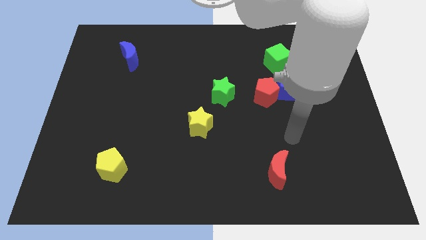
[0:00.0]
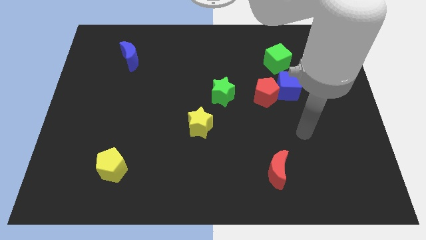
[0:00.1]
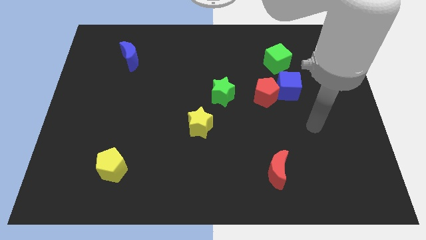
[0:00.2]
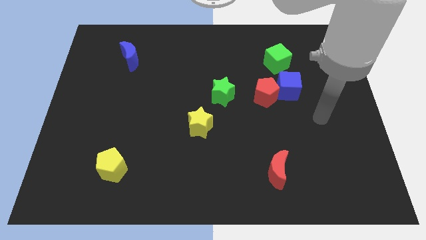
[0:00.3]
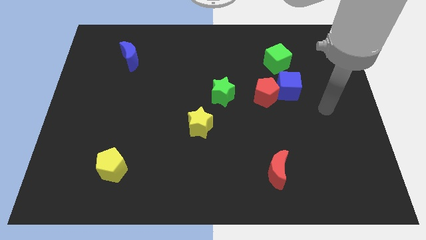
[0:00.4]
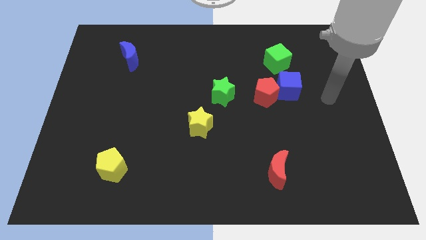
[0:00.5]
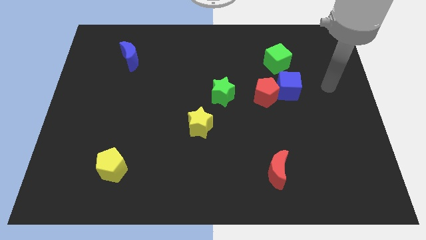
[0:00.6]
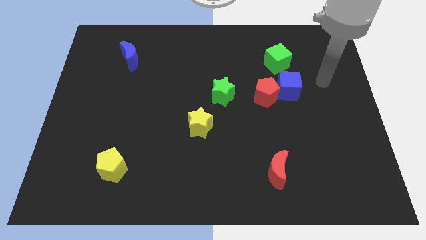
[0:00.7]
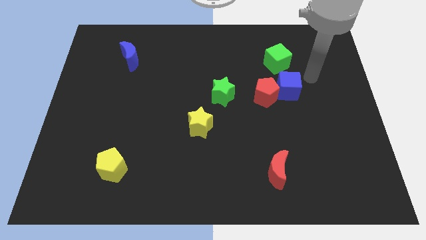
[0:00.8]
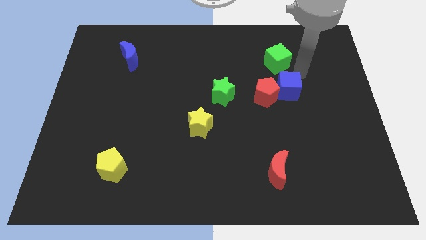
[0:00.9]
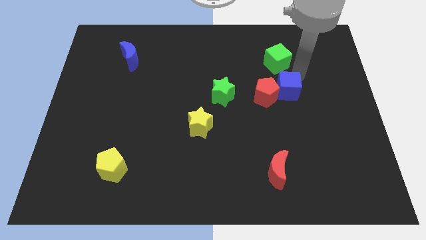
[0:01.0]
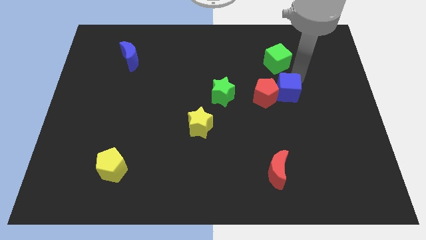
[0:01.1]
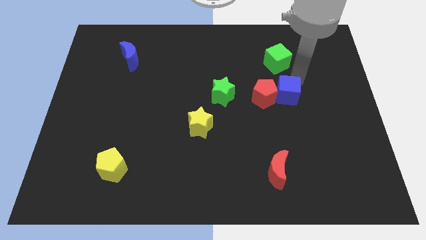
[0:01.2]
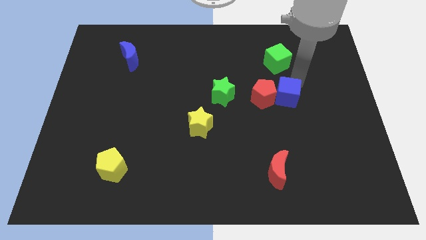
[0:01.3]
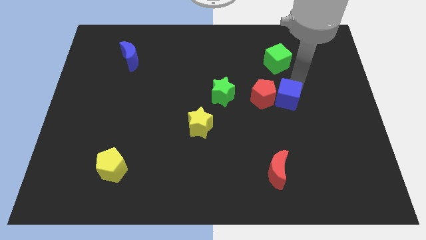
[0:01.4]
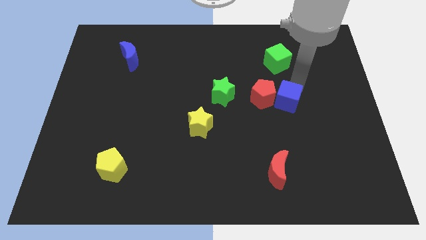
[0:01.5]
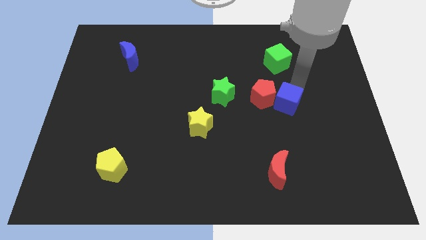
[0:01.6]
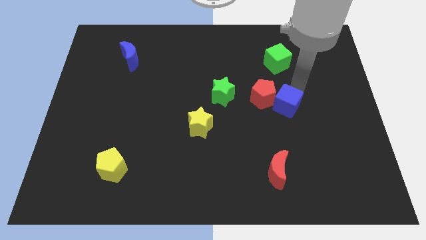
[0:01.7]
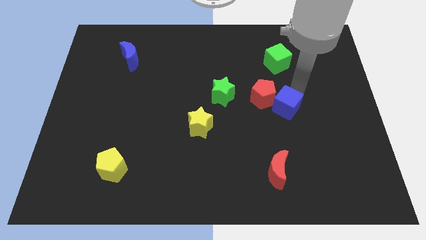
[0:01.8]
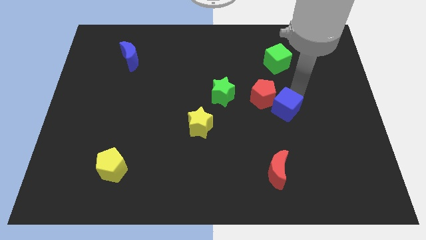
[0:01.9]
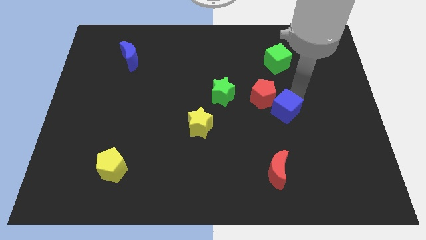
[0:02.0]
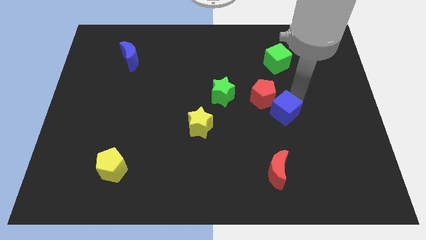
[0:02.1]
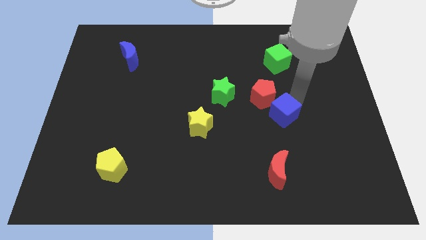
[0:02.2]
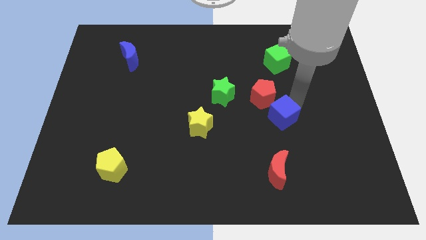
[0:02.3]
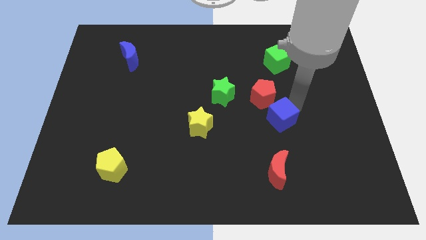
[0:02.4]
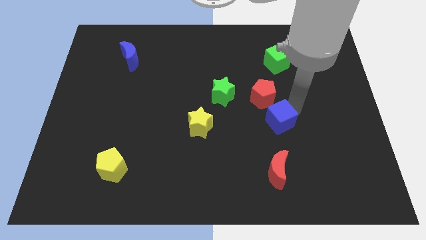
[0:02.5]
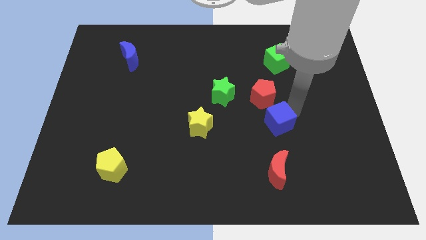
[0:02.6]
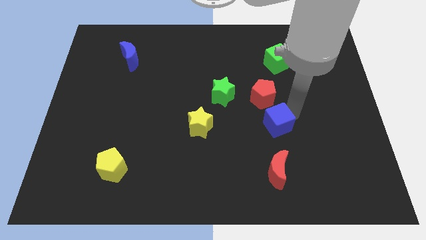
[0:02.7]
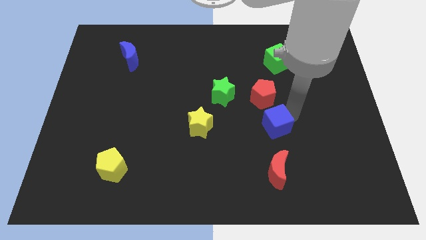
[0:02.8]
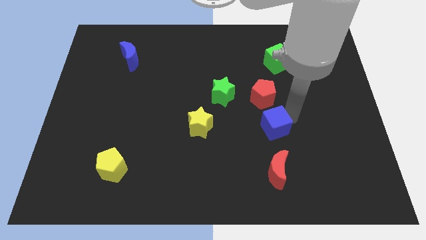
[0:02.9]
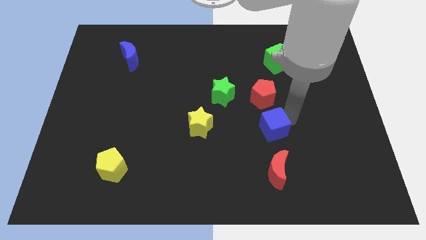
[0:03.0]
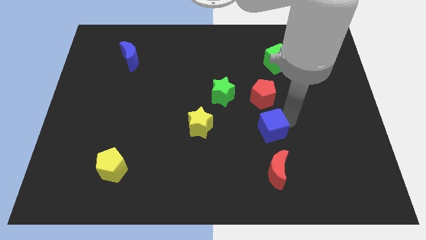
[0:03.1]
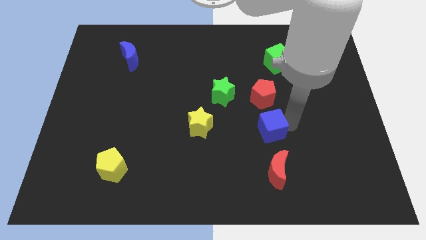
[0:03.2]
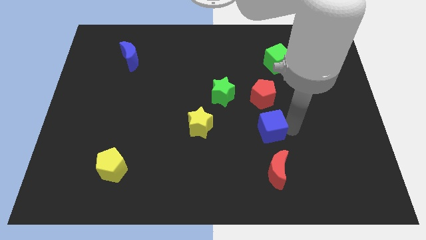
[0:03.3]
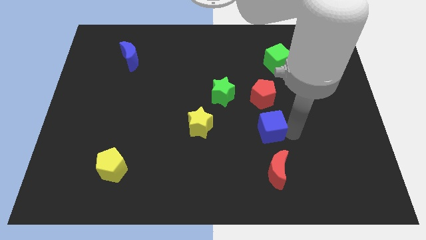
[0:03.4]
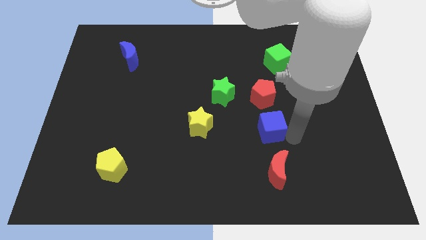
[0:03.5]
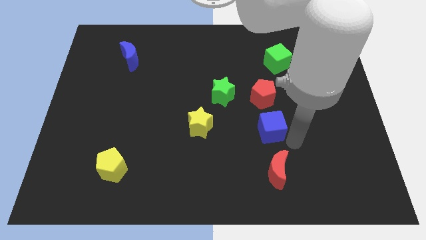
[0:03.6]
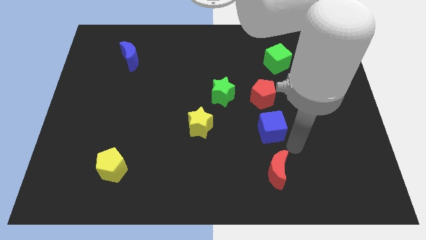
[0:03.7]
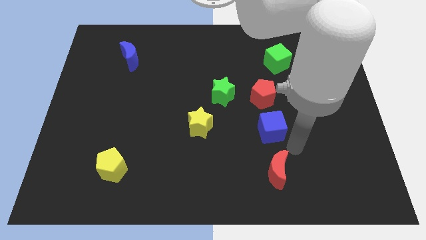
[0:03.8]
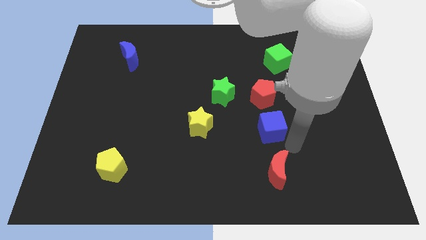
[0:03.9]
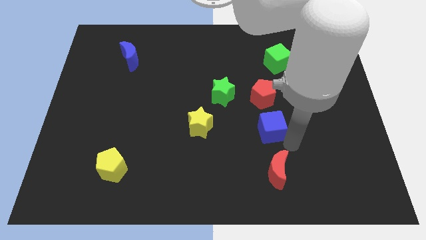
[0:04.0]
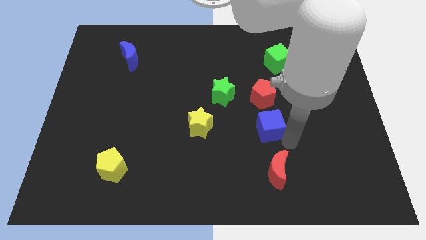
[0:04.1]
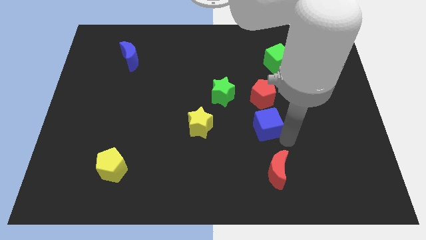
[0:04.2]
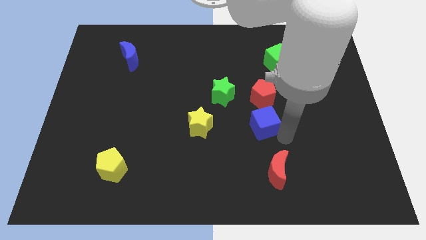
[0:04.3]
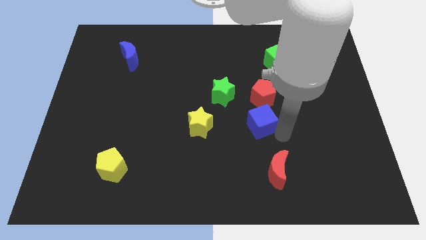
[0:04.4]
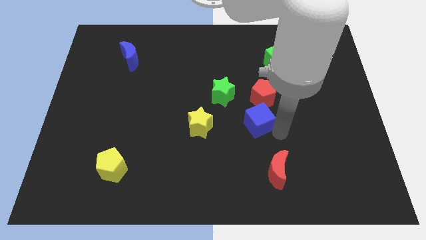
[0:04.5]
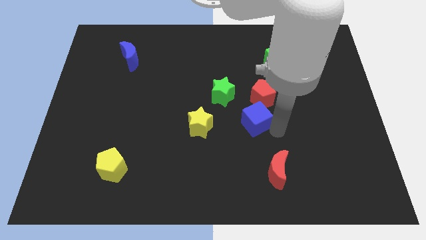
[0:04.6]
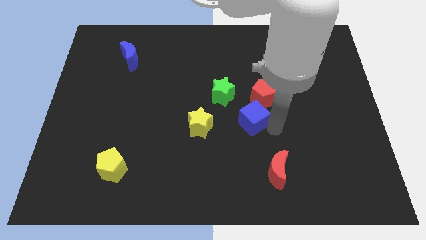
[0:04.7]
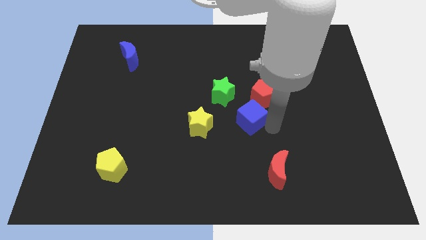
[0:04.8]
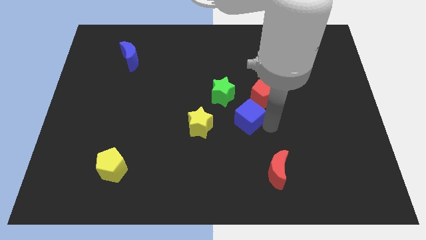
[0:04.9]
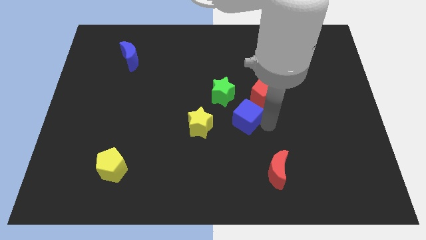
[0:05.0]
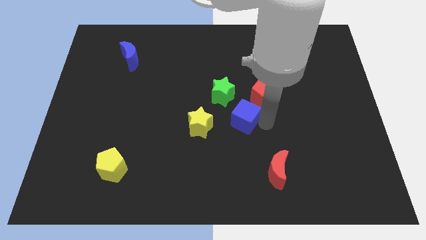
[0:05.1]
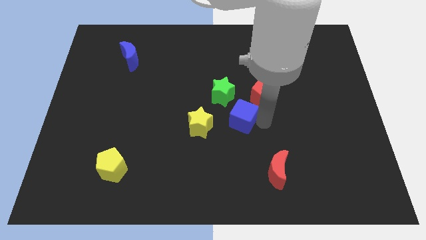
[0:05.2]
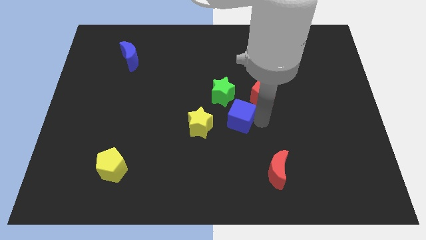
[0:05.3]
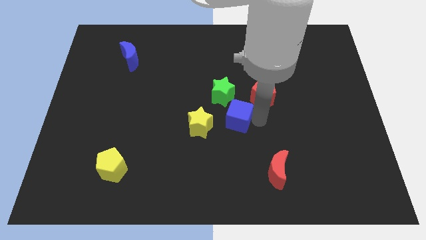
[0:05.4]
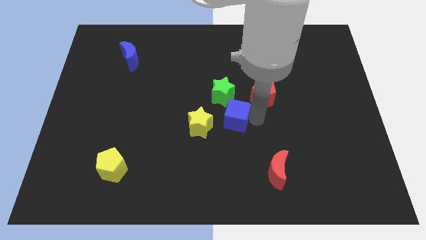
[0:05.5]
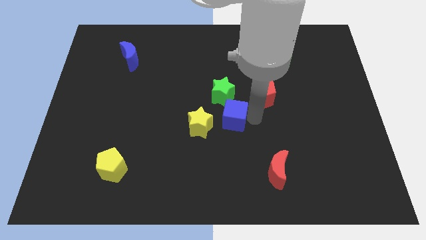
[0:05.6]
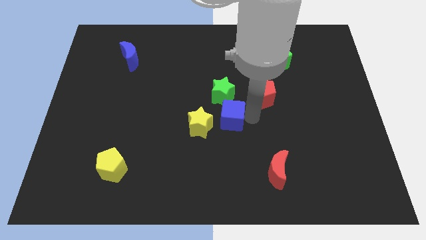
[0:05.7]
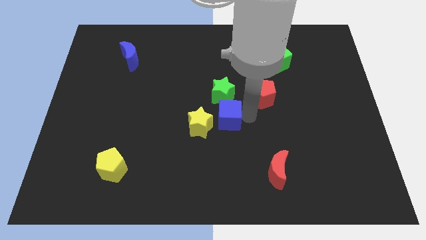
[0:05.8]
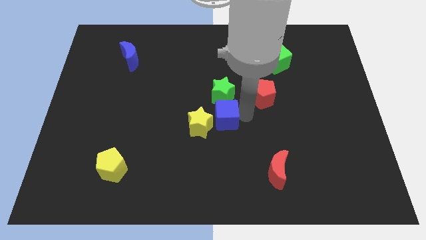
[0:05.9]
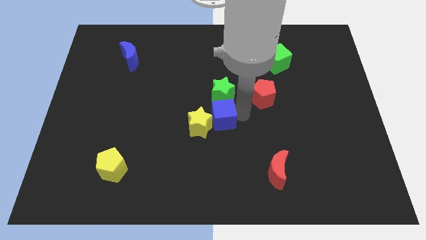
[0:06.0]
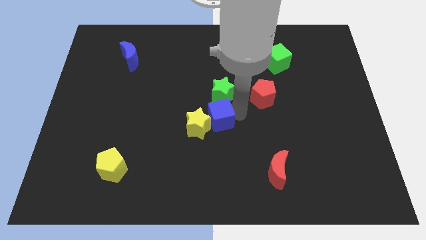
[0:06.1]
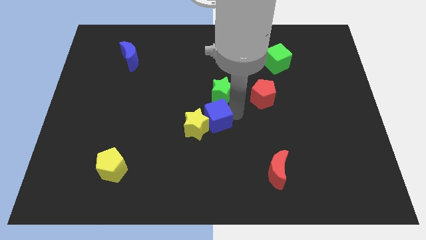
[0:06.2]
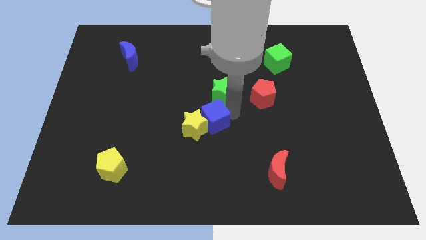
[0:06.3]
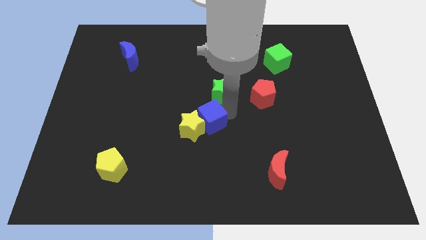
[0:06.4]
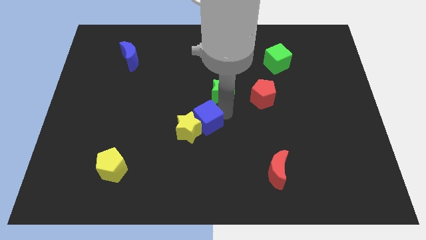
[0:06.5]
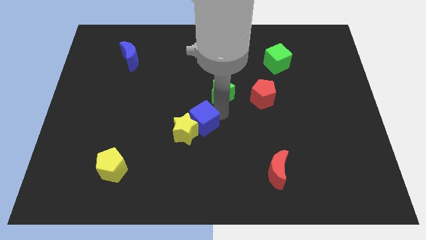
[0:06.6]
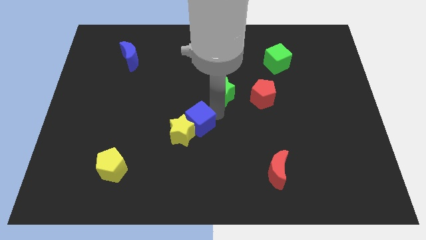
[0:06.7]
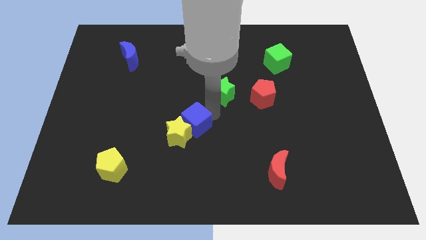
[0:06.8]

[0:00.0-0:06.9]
move the blue cube downwards and to the left diagonally

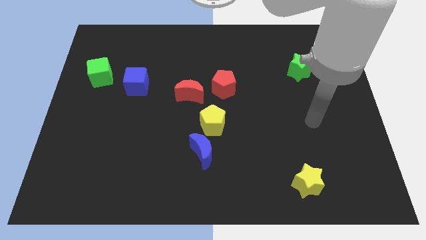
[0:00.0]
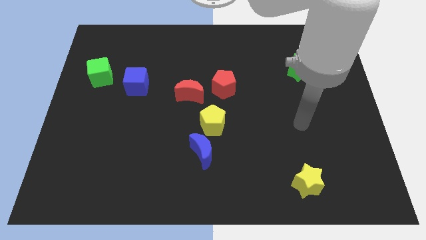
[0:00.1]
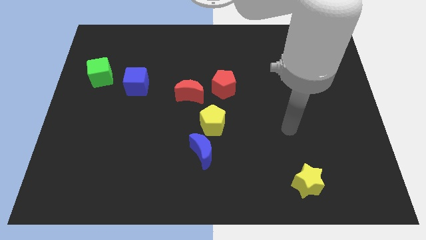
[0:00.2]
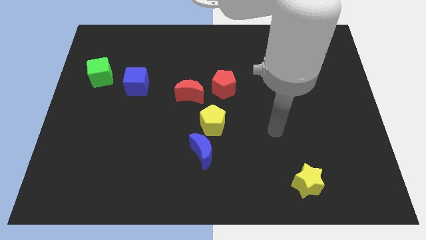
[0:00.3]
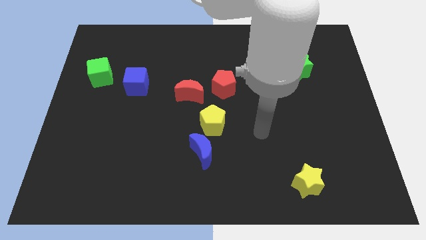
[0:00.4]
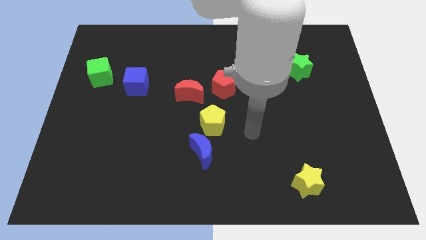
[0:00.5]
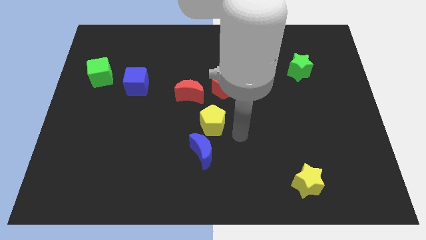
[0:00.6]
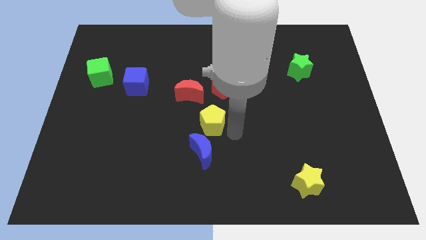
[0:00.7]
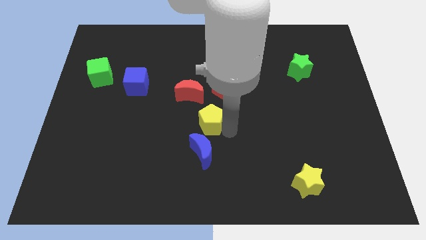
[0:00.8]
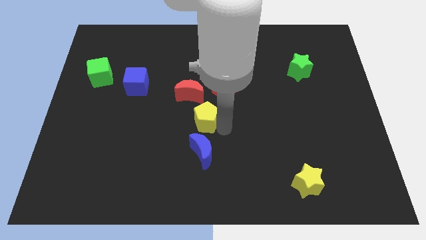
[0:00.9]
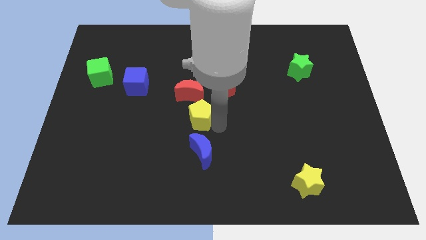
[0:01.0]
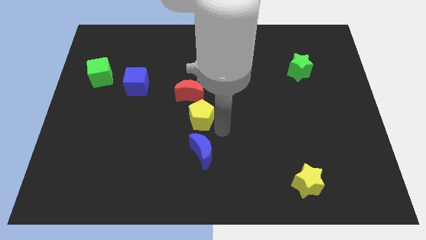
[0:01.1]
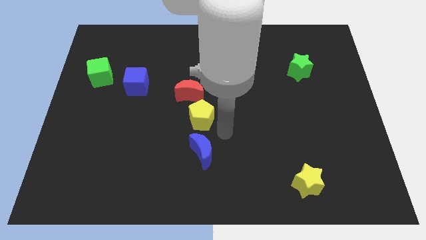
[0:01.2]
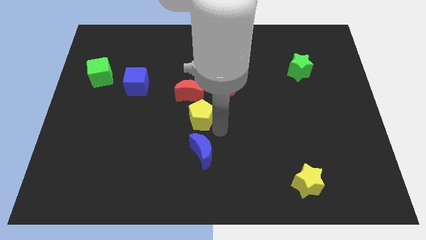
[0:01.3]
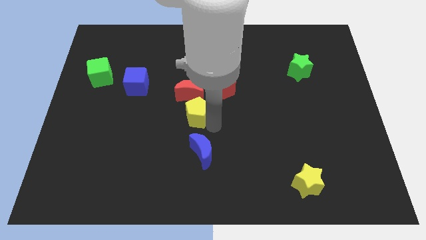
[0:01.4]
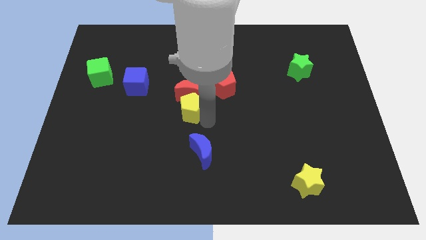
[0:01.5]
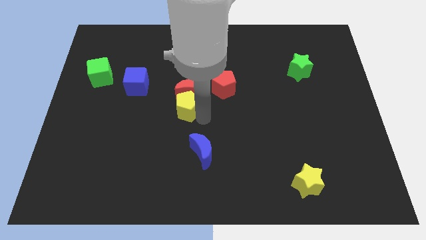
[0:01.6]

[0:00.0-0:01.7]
move the yellow pentagon slightly upwards and left diagonally
